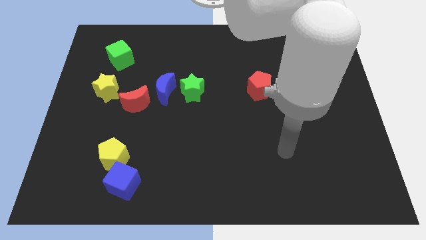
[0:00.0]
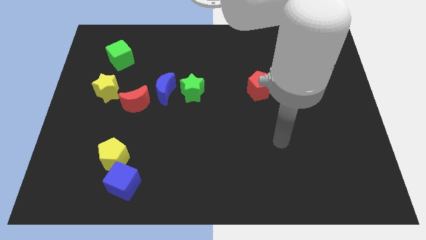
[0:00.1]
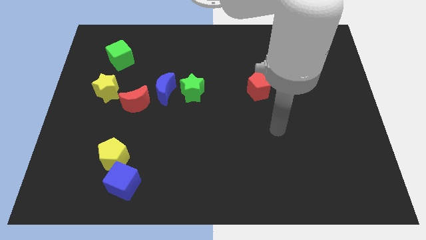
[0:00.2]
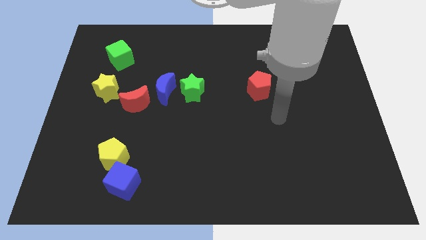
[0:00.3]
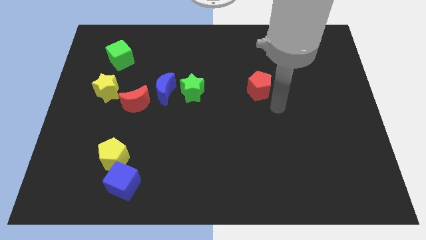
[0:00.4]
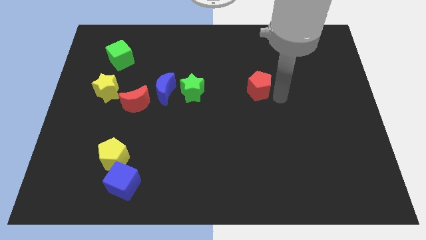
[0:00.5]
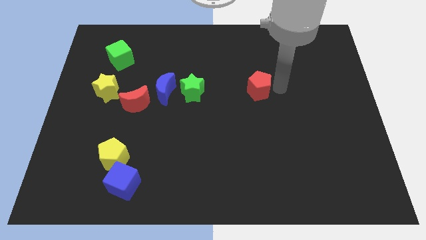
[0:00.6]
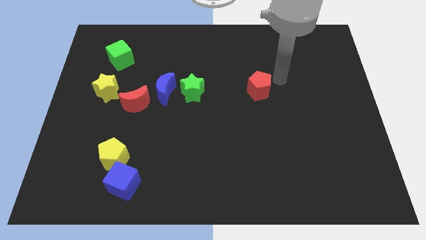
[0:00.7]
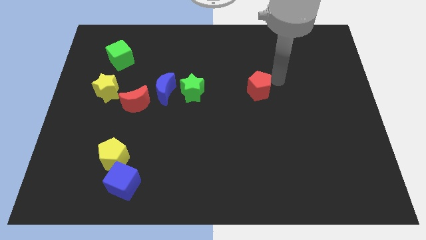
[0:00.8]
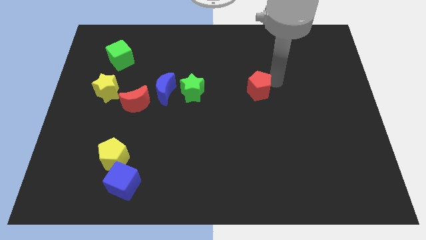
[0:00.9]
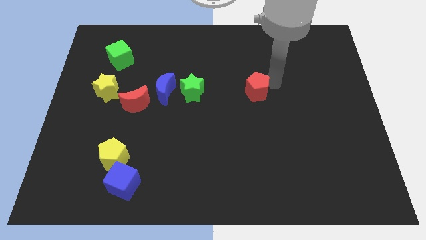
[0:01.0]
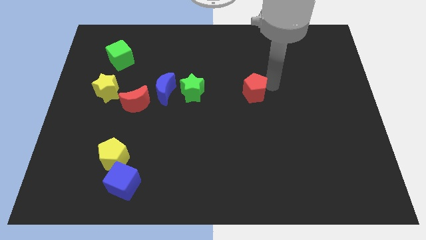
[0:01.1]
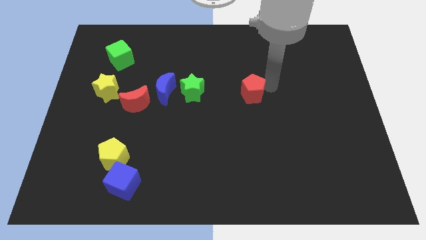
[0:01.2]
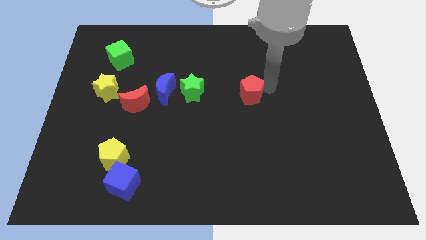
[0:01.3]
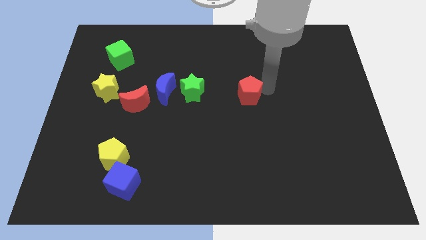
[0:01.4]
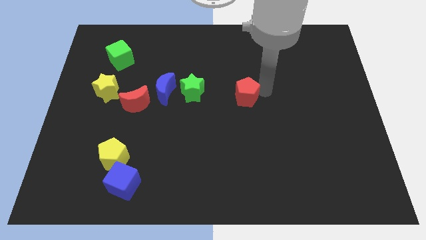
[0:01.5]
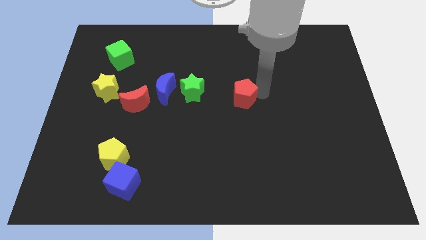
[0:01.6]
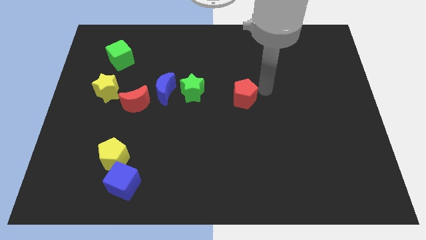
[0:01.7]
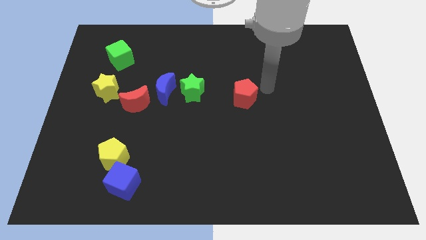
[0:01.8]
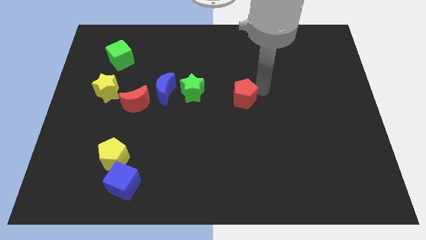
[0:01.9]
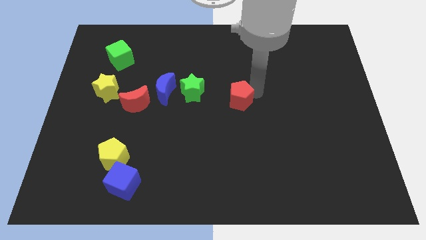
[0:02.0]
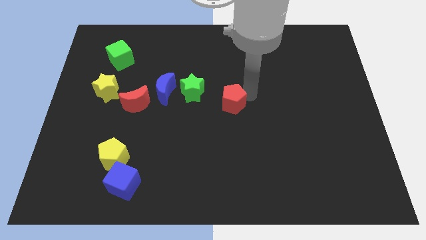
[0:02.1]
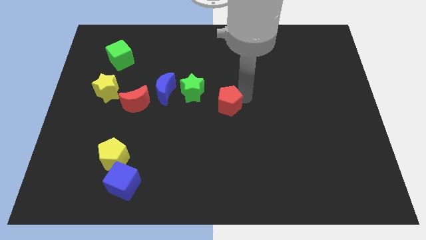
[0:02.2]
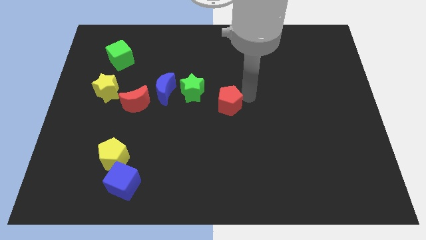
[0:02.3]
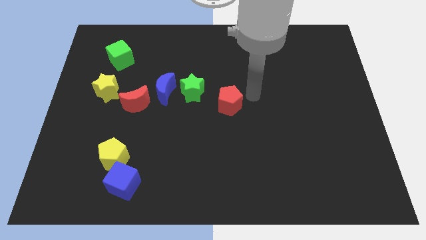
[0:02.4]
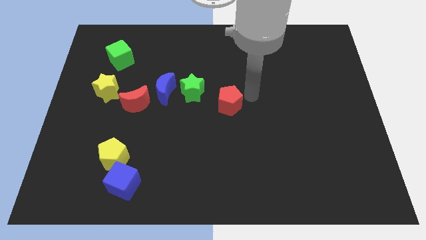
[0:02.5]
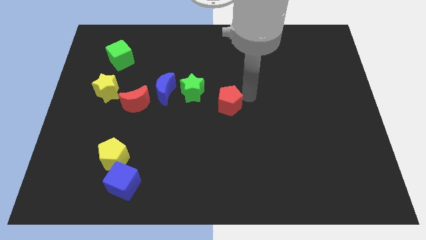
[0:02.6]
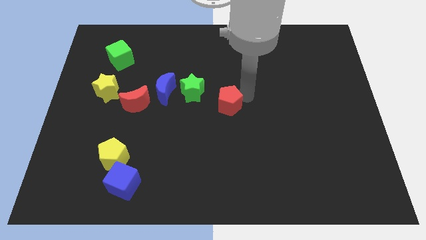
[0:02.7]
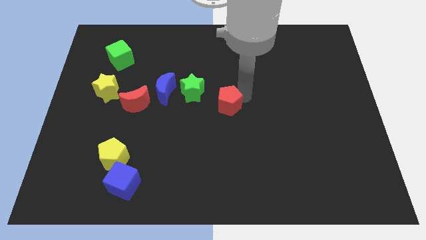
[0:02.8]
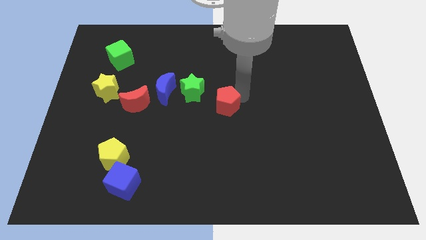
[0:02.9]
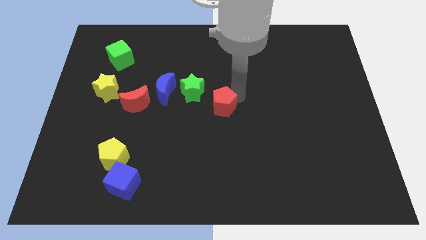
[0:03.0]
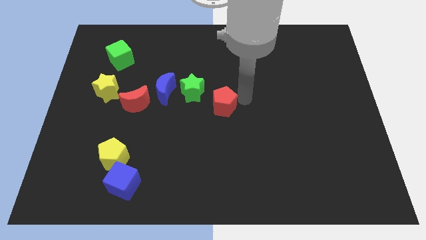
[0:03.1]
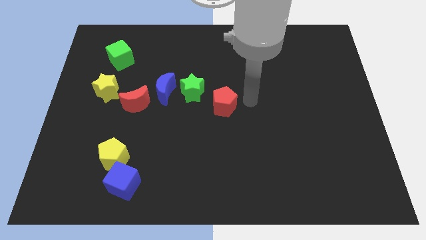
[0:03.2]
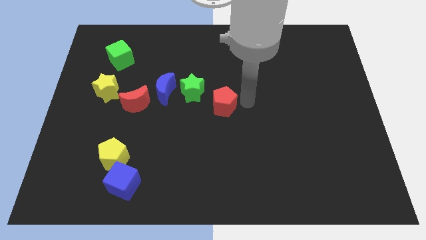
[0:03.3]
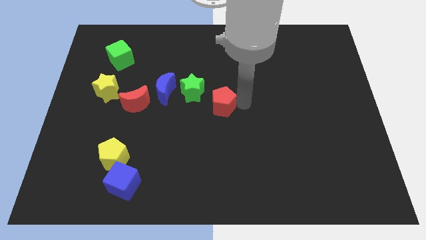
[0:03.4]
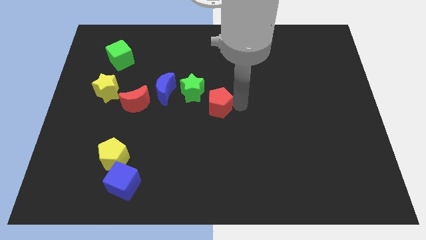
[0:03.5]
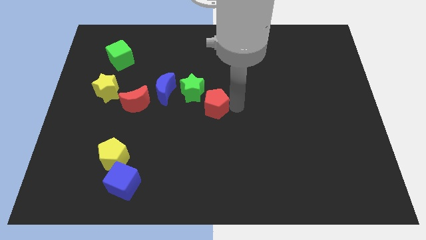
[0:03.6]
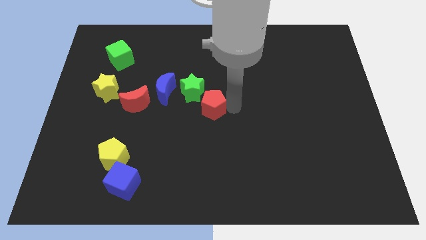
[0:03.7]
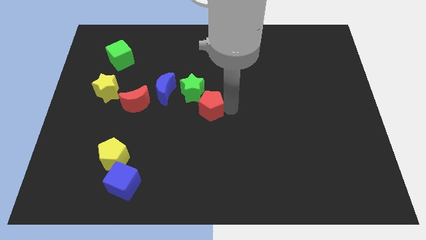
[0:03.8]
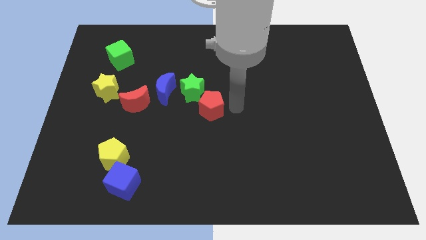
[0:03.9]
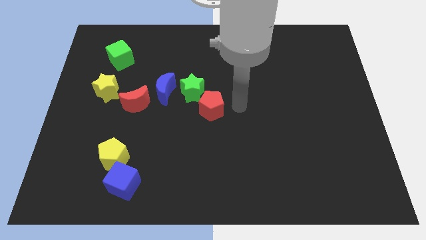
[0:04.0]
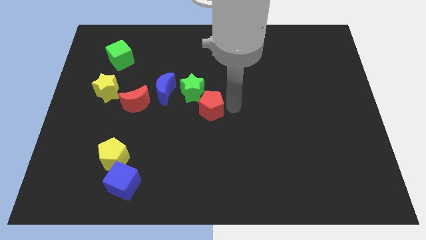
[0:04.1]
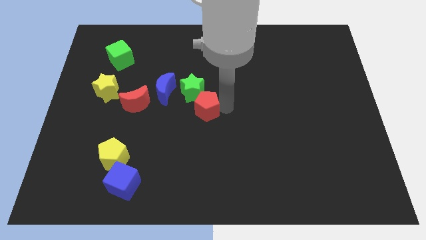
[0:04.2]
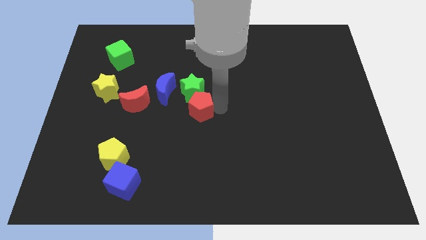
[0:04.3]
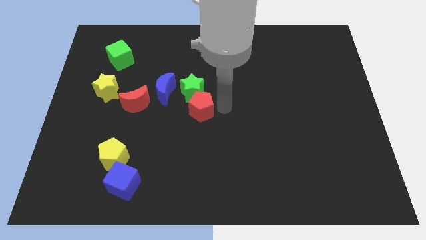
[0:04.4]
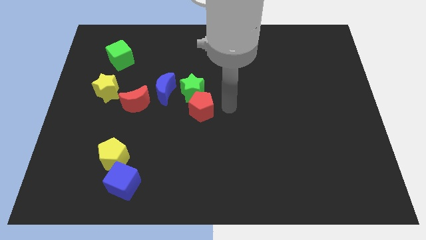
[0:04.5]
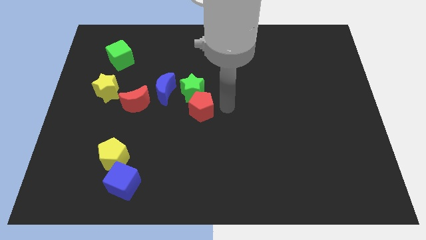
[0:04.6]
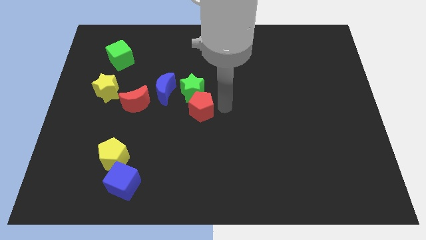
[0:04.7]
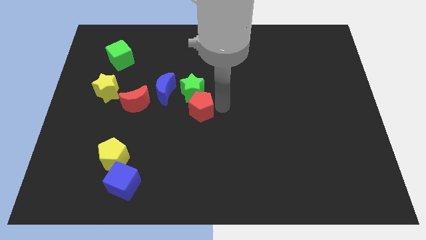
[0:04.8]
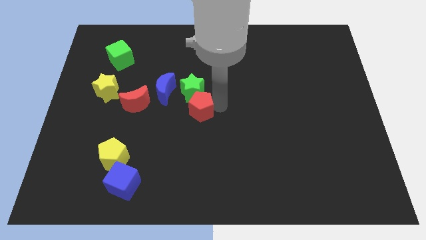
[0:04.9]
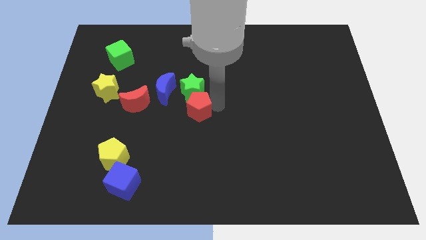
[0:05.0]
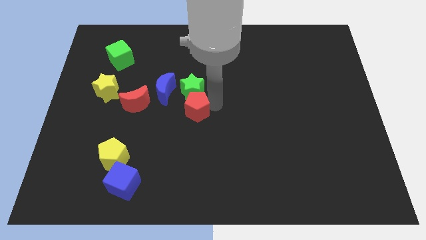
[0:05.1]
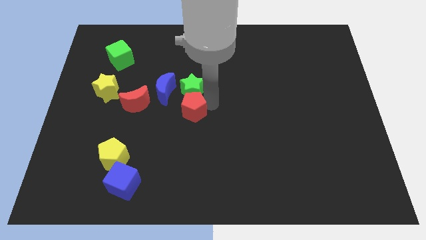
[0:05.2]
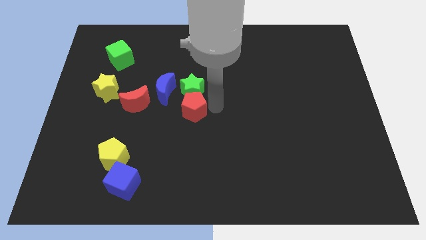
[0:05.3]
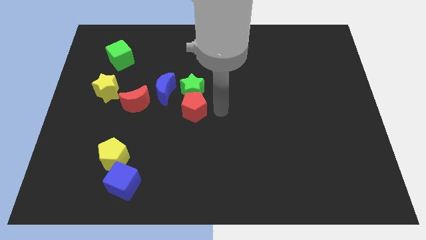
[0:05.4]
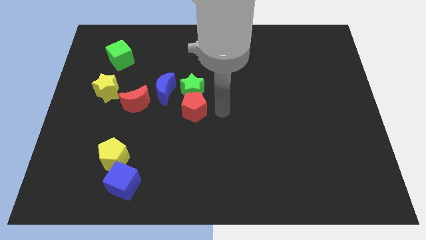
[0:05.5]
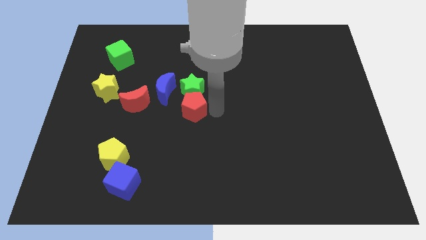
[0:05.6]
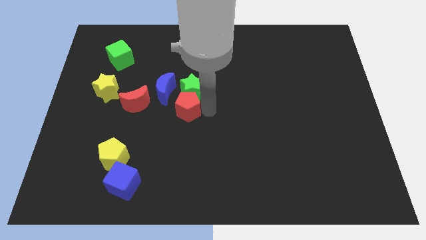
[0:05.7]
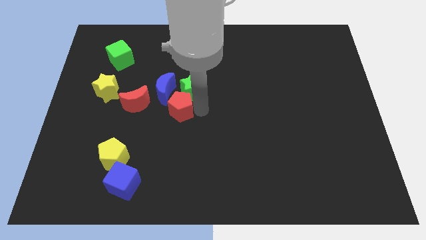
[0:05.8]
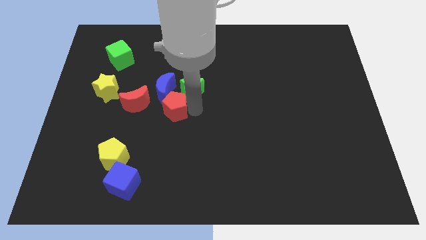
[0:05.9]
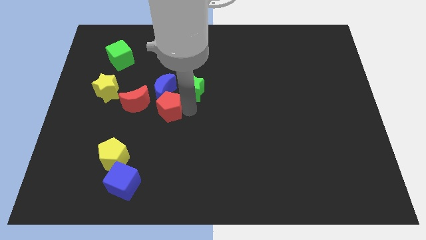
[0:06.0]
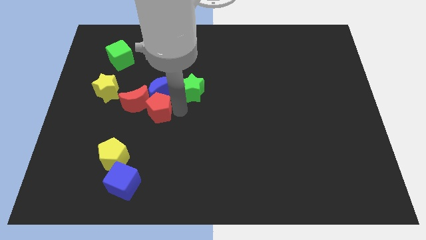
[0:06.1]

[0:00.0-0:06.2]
slide the red pentagon close to the red moon

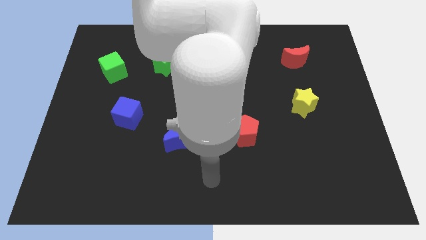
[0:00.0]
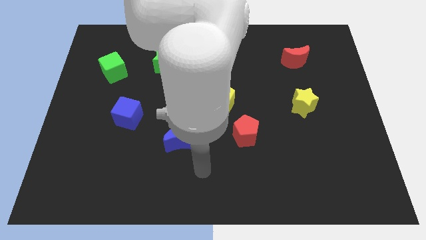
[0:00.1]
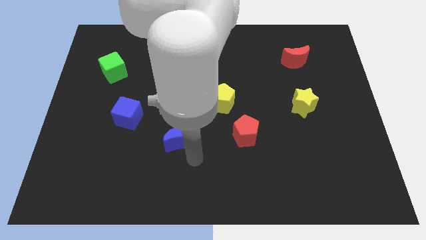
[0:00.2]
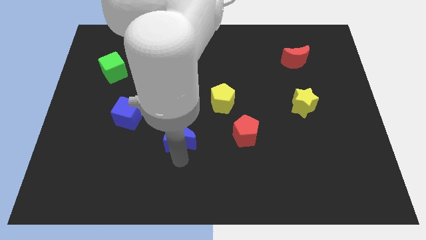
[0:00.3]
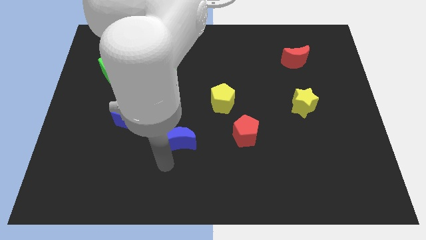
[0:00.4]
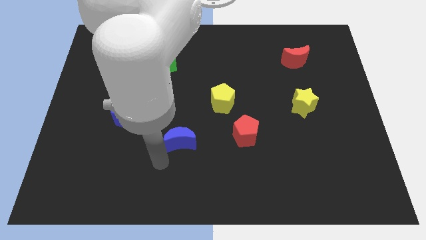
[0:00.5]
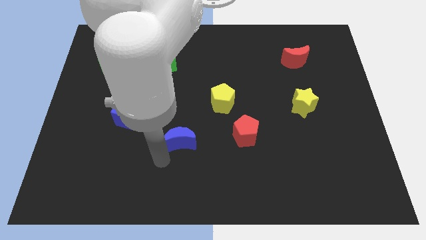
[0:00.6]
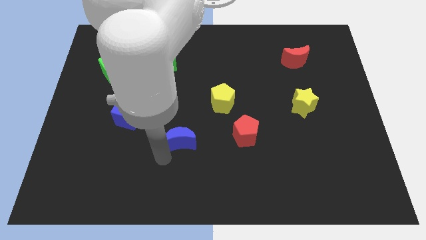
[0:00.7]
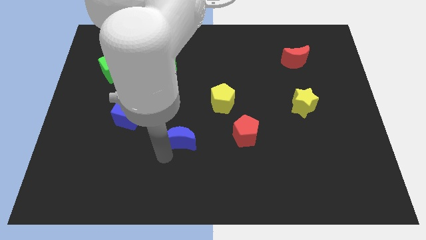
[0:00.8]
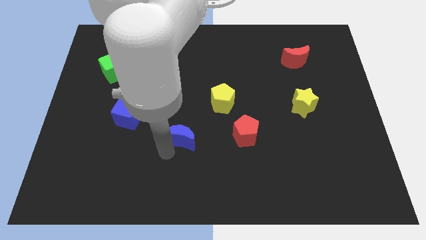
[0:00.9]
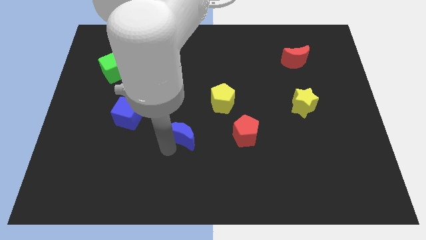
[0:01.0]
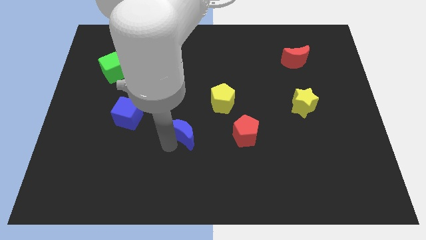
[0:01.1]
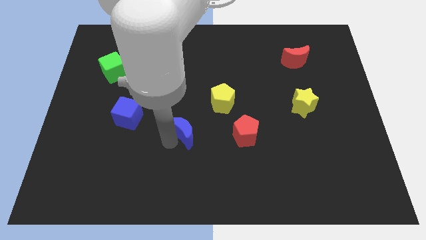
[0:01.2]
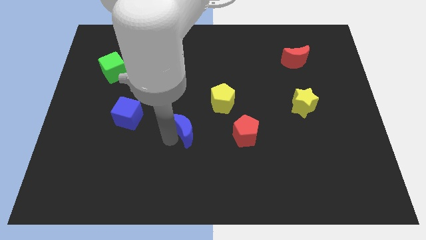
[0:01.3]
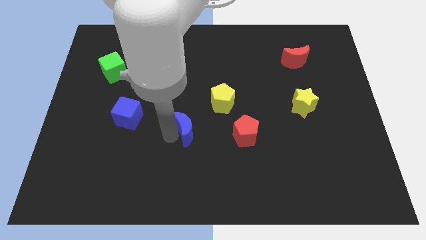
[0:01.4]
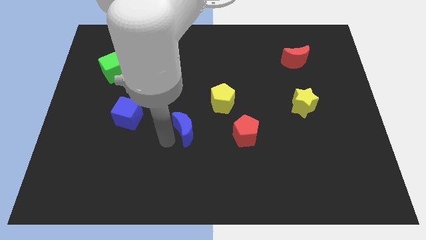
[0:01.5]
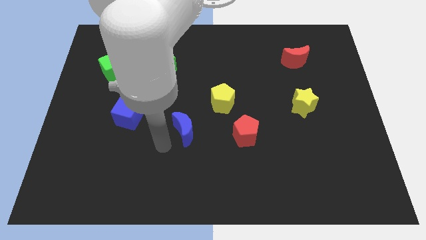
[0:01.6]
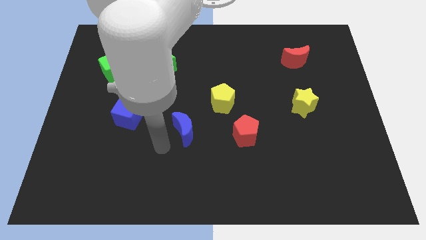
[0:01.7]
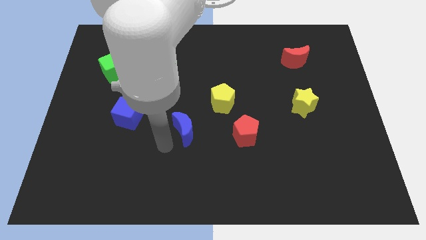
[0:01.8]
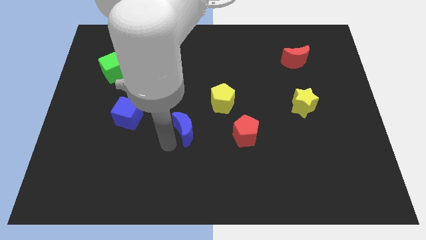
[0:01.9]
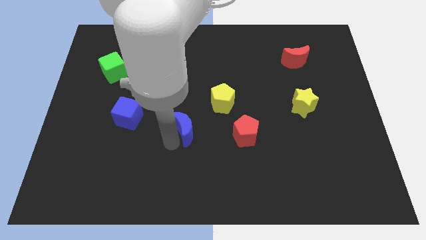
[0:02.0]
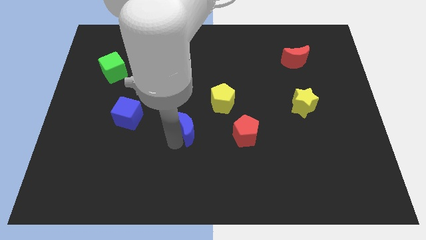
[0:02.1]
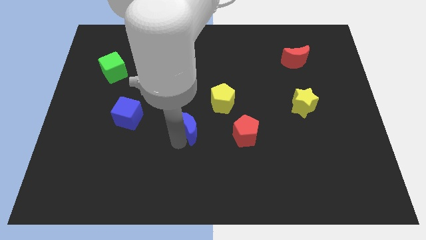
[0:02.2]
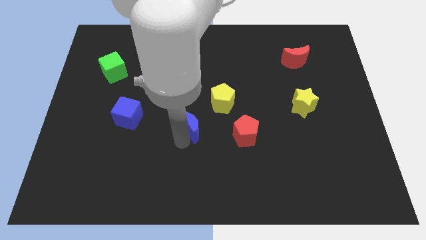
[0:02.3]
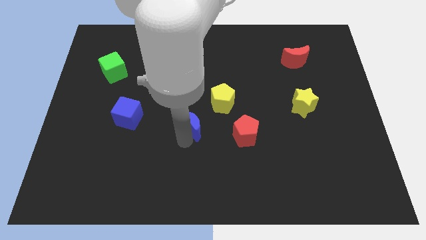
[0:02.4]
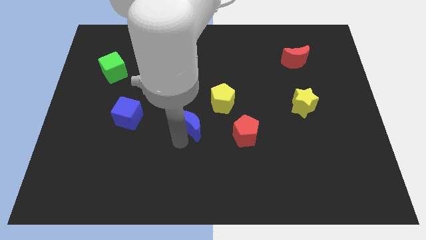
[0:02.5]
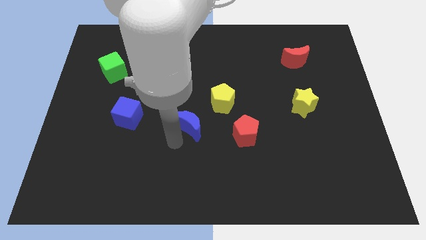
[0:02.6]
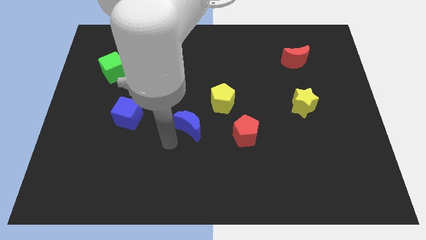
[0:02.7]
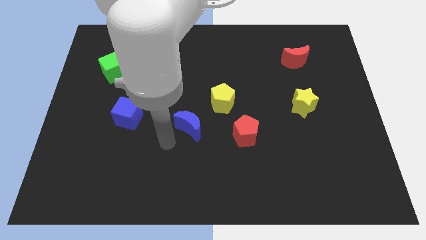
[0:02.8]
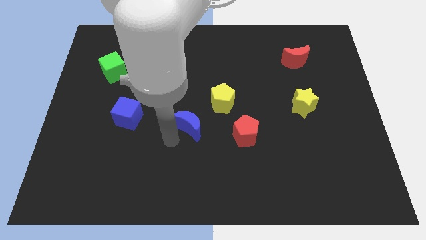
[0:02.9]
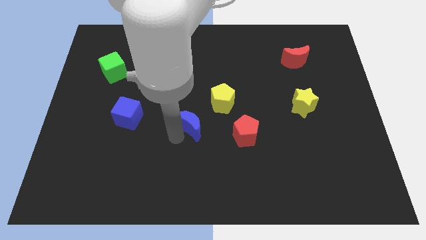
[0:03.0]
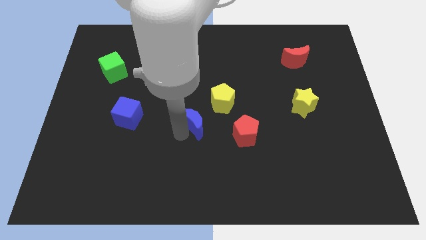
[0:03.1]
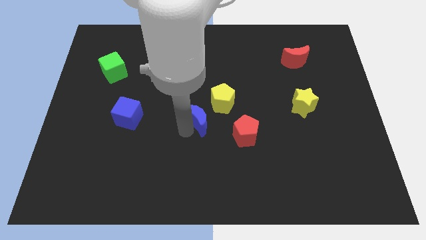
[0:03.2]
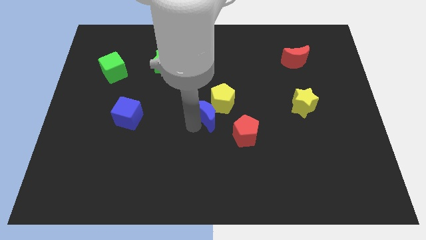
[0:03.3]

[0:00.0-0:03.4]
move the blue moon towards the yellow pentagon
